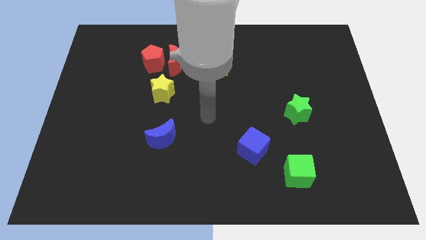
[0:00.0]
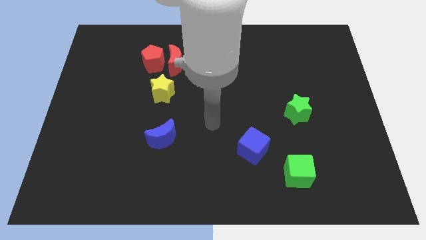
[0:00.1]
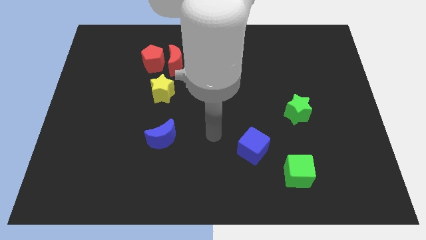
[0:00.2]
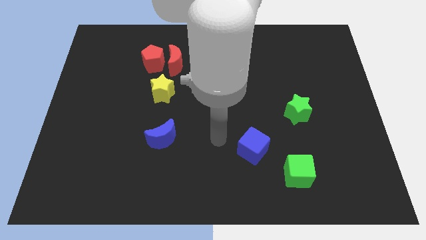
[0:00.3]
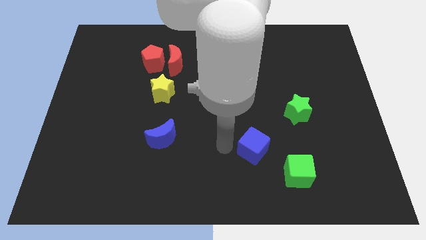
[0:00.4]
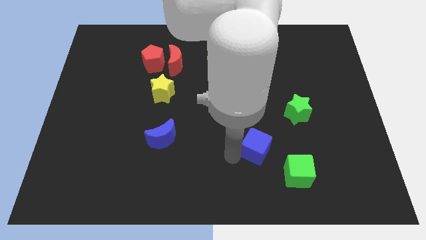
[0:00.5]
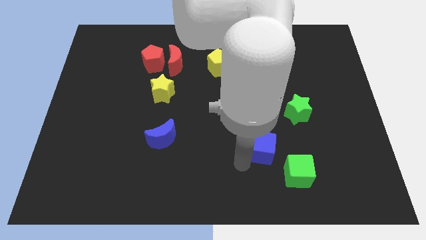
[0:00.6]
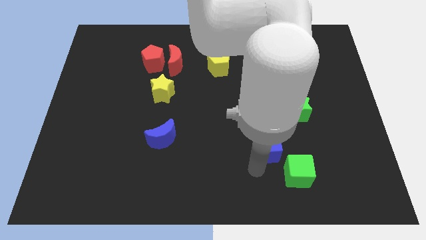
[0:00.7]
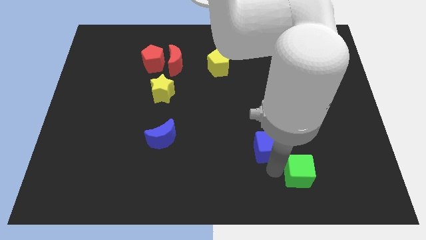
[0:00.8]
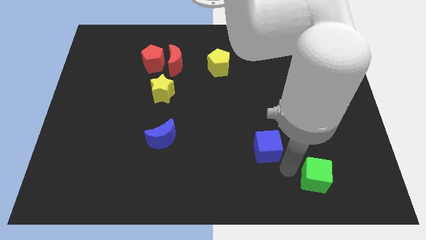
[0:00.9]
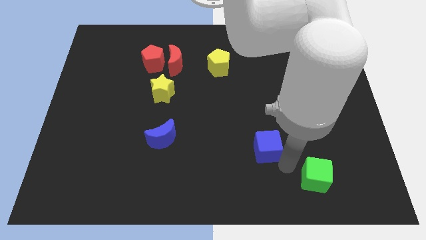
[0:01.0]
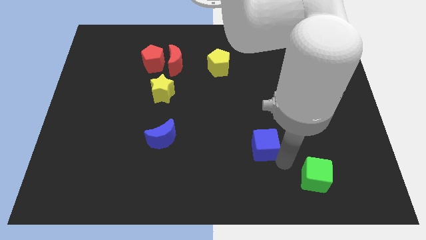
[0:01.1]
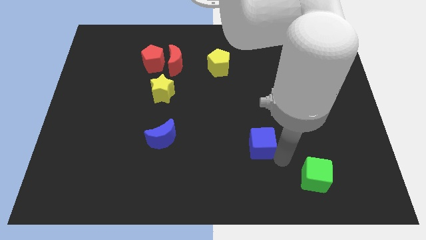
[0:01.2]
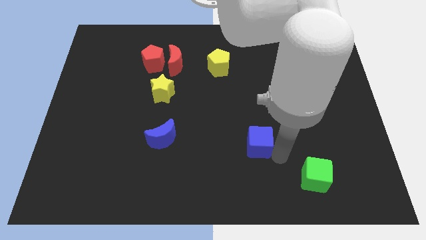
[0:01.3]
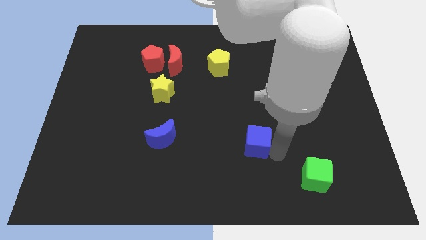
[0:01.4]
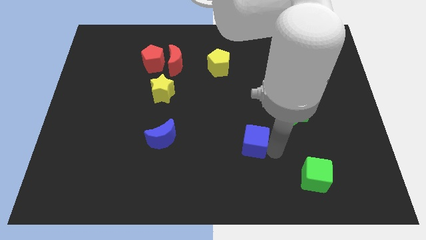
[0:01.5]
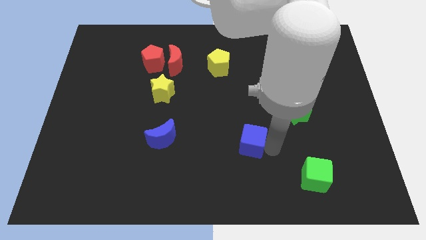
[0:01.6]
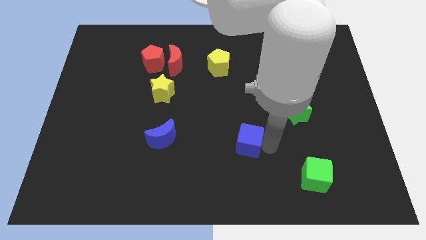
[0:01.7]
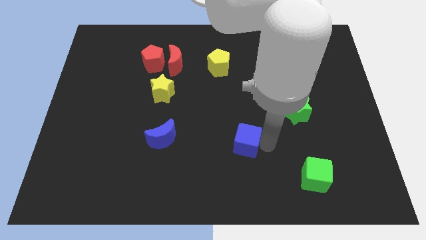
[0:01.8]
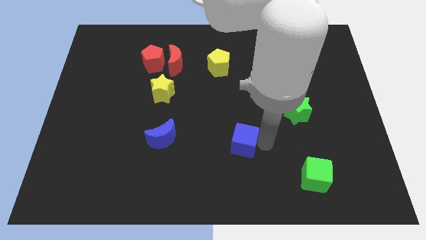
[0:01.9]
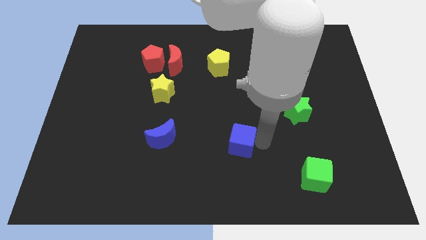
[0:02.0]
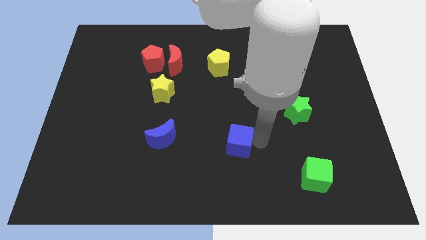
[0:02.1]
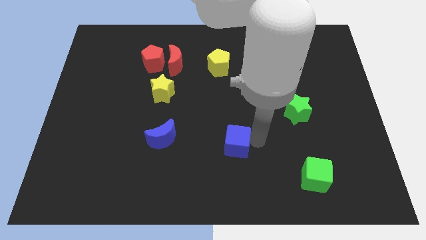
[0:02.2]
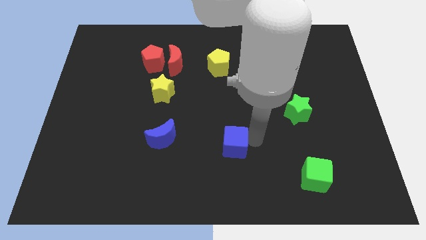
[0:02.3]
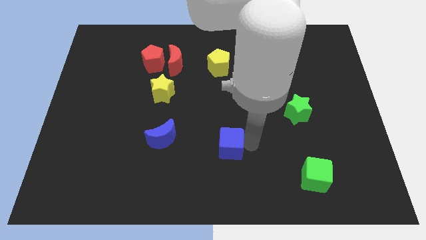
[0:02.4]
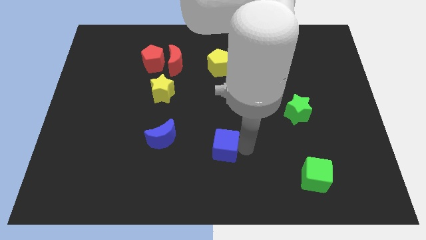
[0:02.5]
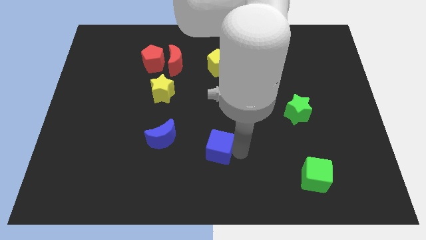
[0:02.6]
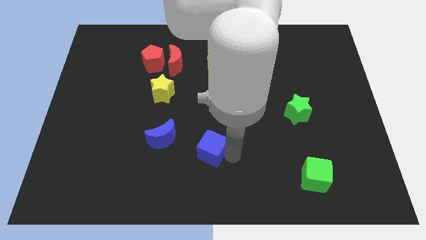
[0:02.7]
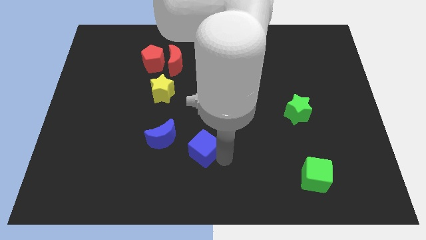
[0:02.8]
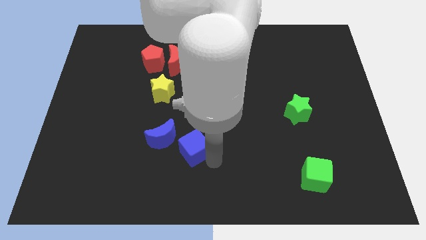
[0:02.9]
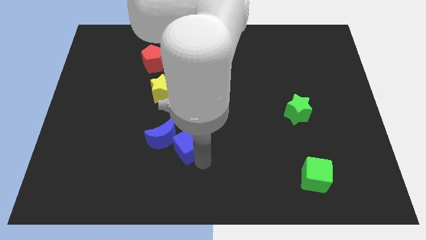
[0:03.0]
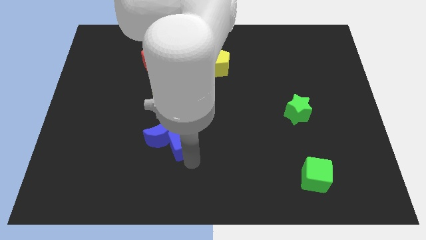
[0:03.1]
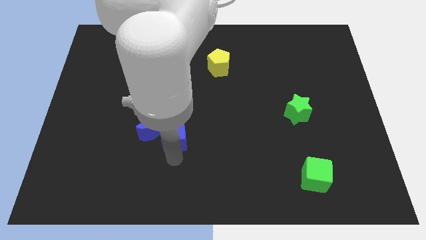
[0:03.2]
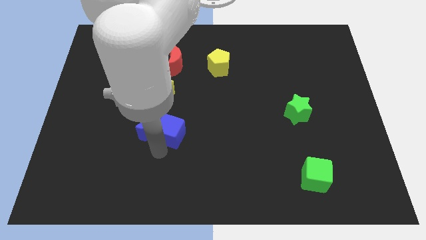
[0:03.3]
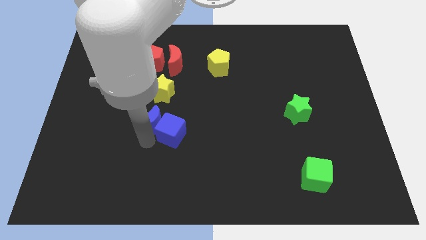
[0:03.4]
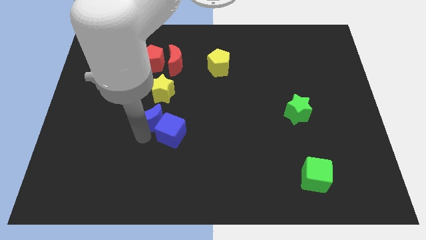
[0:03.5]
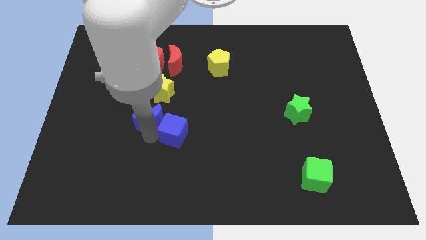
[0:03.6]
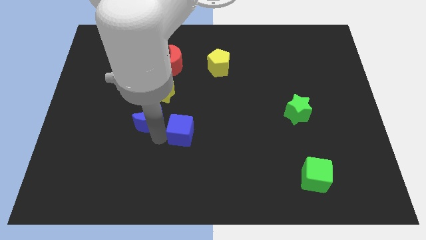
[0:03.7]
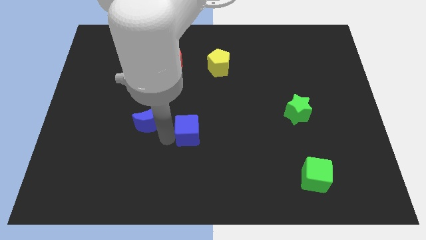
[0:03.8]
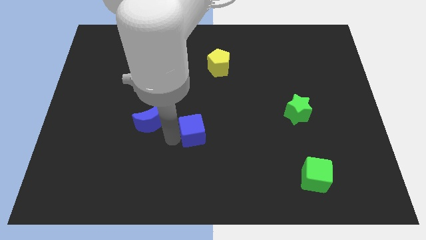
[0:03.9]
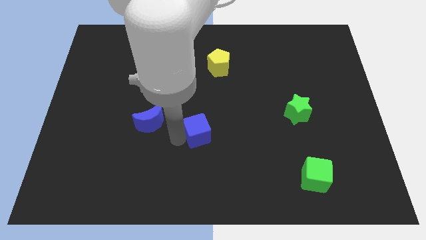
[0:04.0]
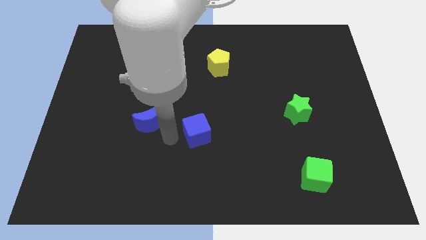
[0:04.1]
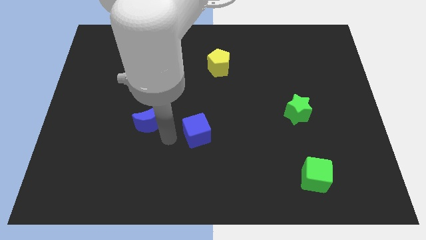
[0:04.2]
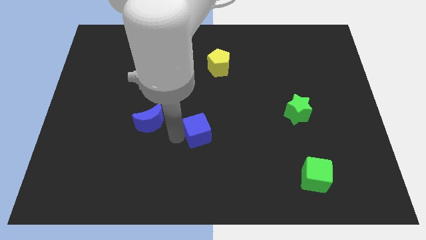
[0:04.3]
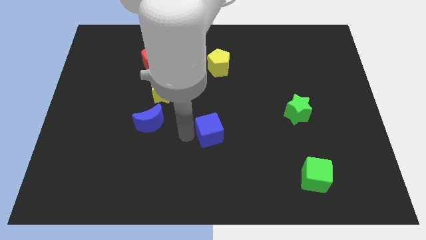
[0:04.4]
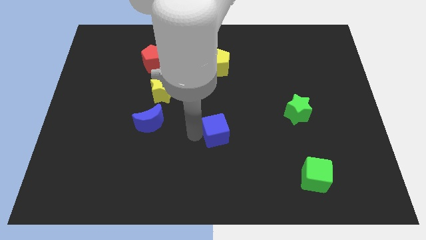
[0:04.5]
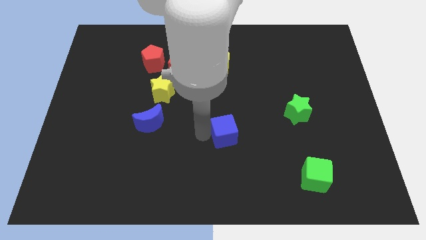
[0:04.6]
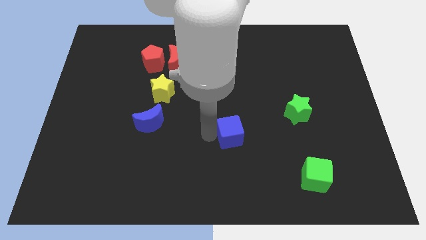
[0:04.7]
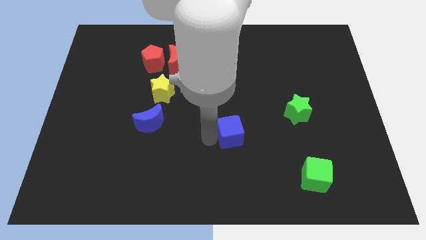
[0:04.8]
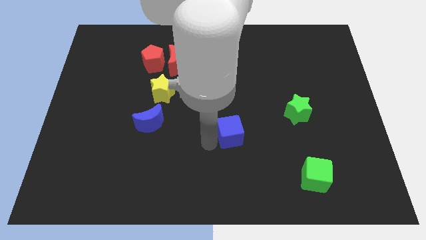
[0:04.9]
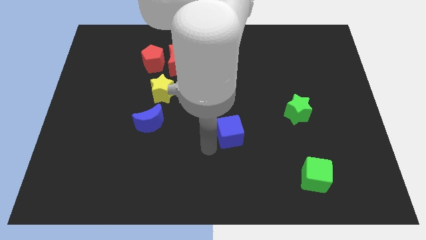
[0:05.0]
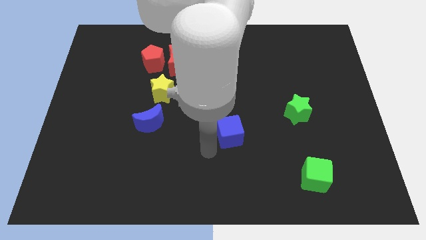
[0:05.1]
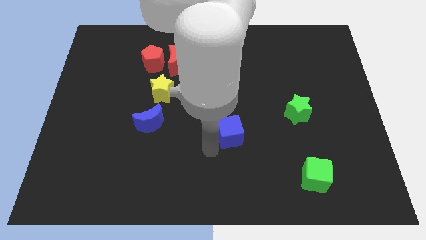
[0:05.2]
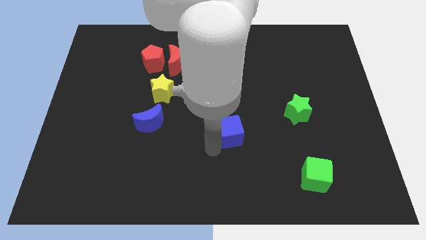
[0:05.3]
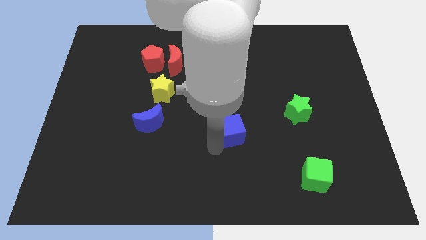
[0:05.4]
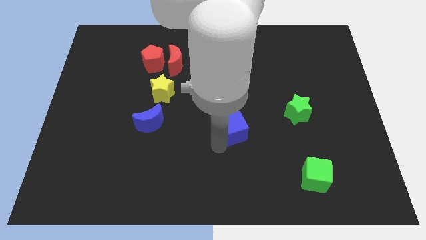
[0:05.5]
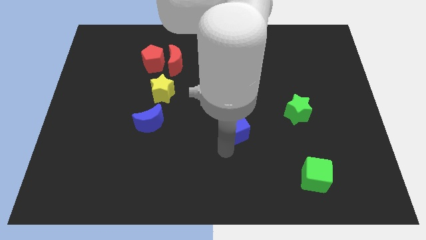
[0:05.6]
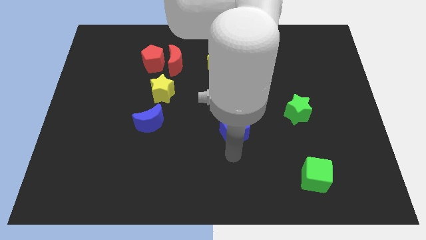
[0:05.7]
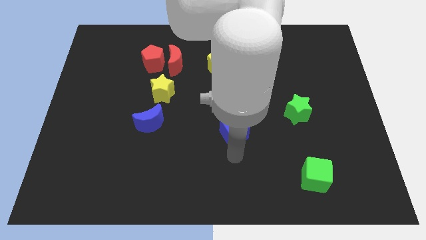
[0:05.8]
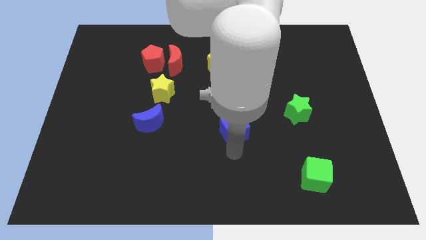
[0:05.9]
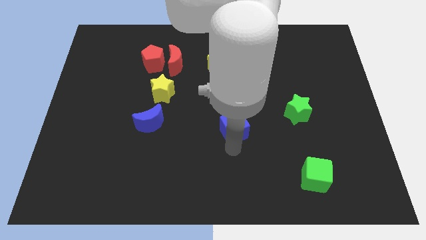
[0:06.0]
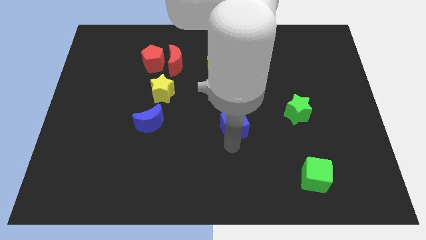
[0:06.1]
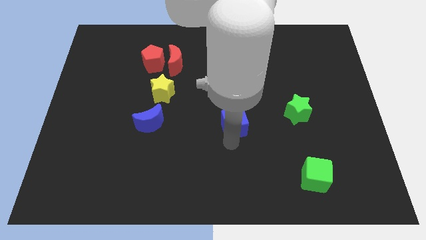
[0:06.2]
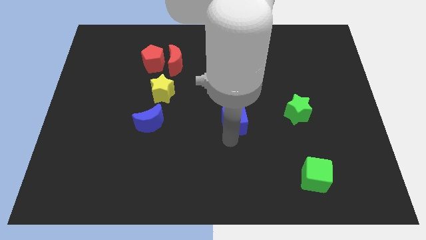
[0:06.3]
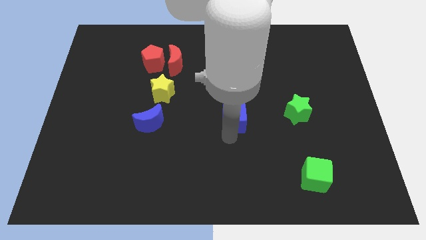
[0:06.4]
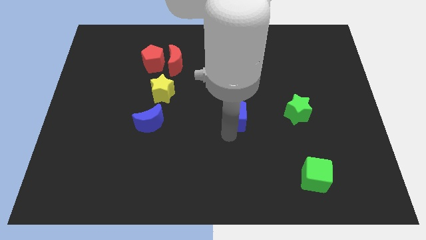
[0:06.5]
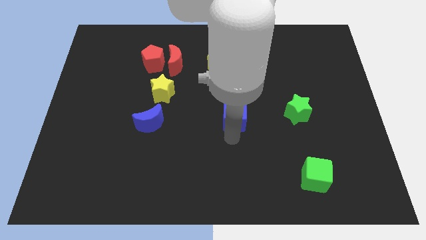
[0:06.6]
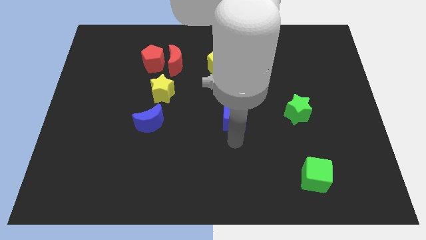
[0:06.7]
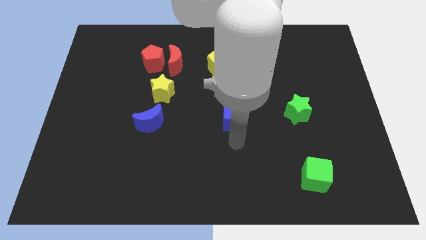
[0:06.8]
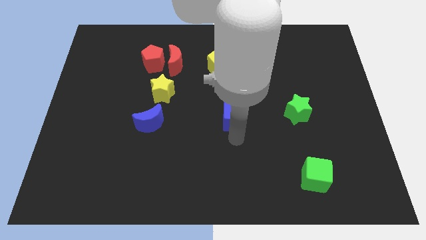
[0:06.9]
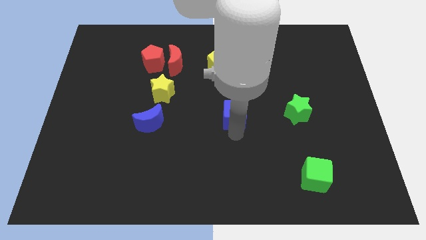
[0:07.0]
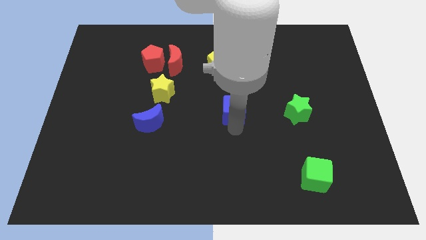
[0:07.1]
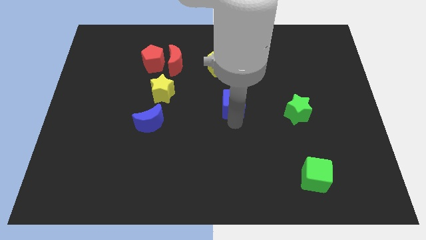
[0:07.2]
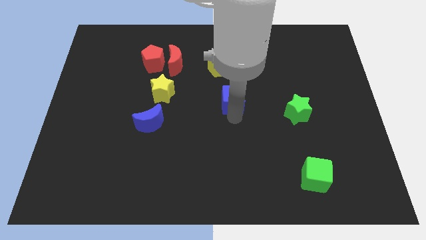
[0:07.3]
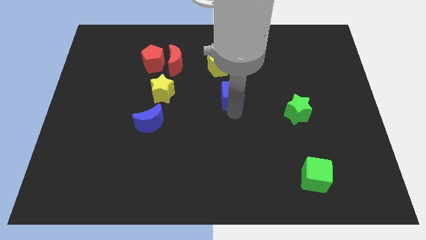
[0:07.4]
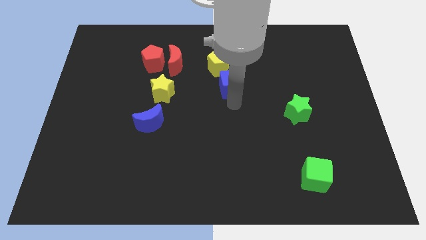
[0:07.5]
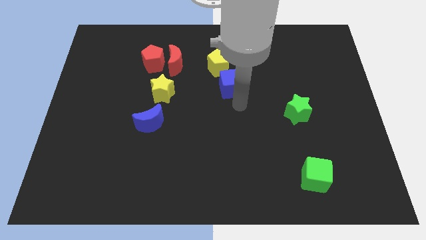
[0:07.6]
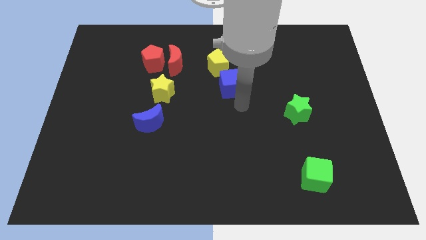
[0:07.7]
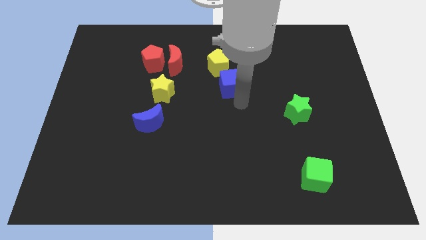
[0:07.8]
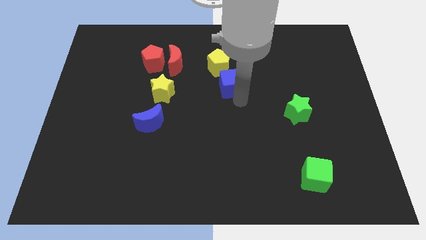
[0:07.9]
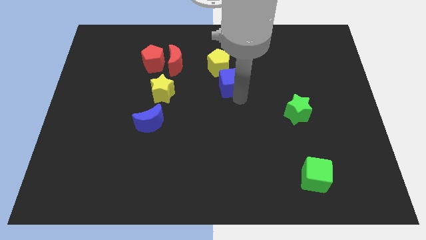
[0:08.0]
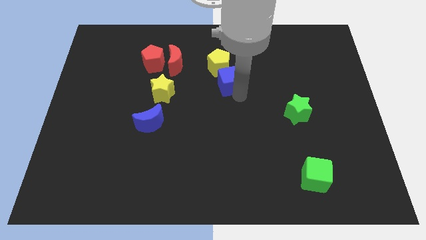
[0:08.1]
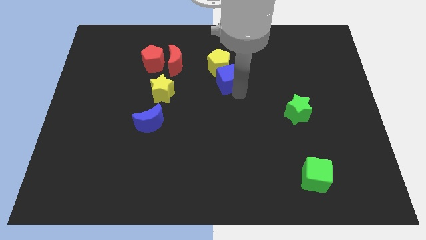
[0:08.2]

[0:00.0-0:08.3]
put the blue cube to the yellow pentagon
